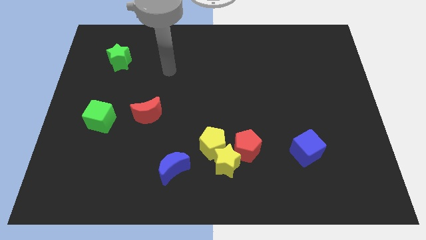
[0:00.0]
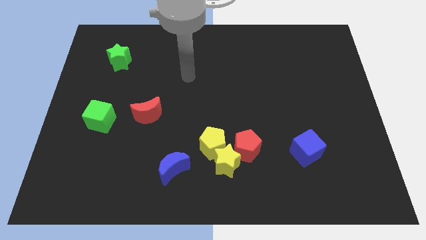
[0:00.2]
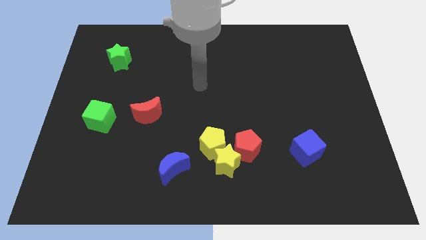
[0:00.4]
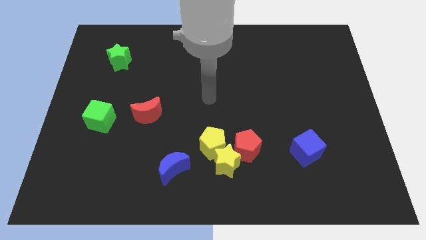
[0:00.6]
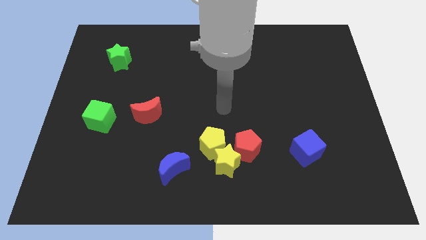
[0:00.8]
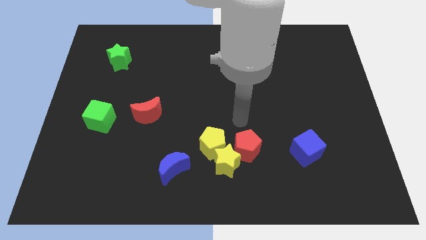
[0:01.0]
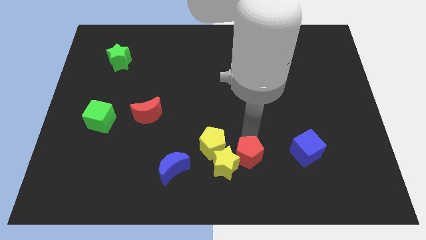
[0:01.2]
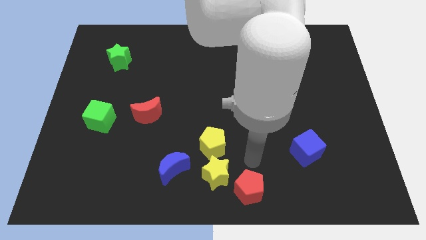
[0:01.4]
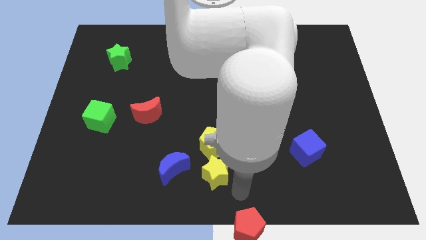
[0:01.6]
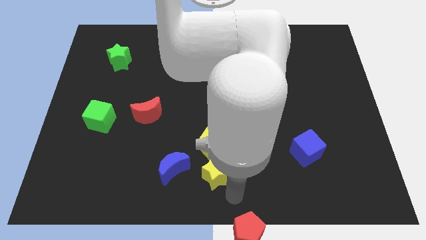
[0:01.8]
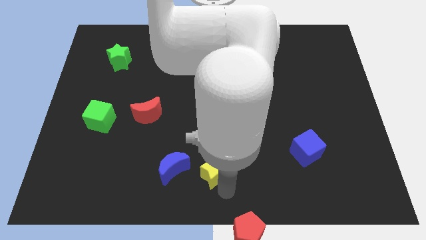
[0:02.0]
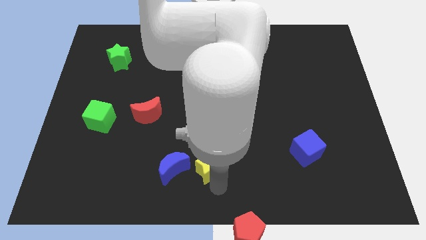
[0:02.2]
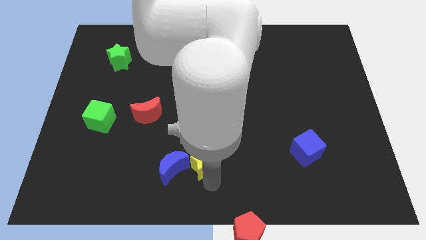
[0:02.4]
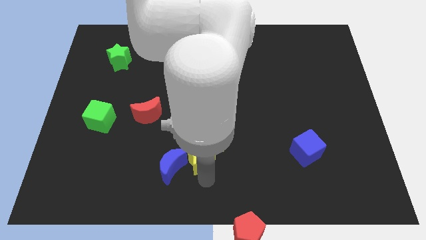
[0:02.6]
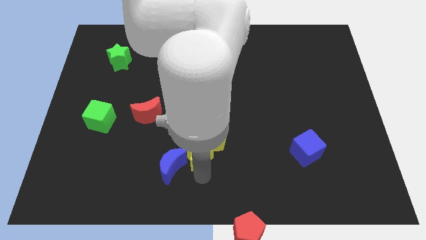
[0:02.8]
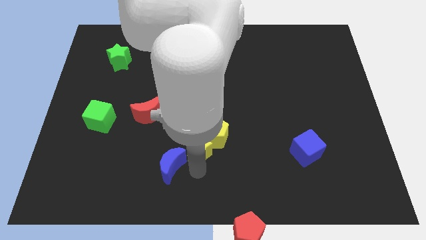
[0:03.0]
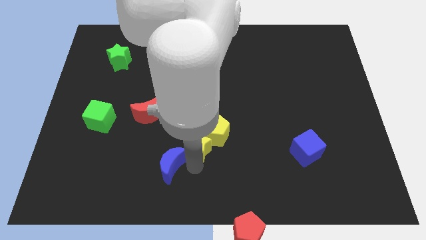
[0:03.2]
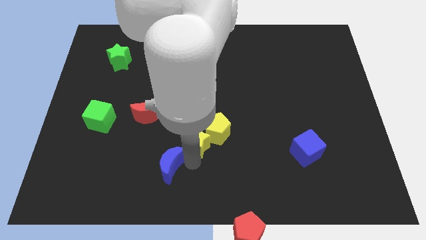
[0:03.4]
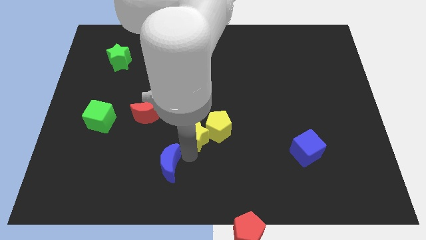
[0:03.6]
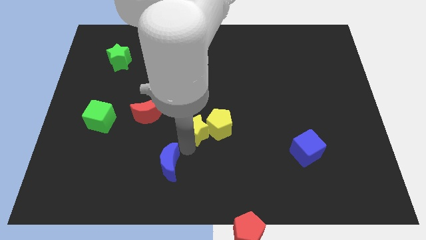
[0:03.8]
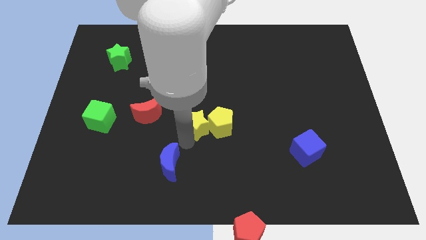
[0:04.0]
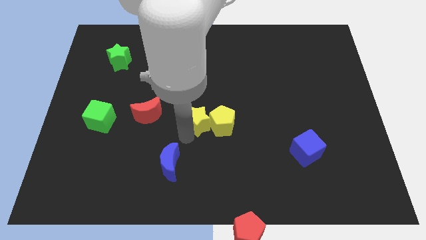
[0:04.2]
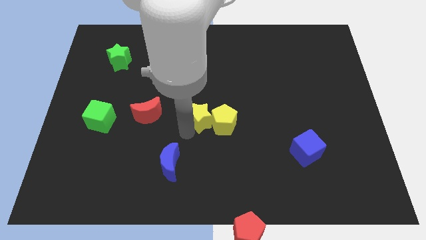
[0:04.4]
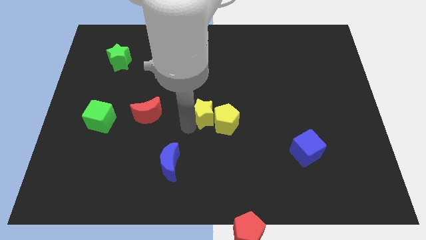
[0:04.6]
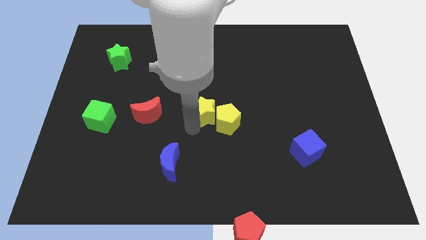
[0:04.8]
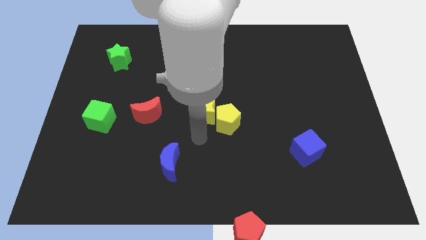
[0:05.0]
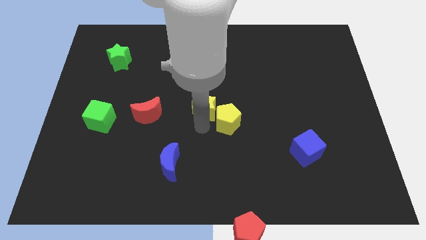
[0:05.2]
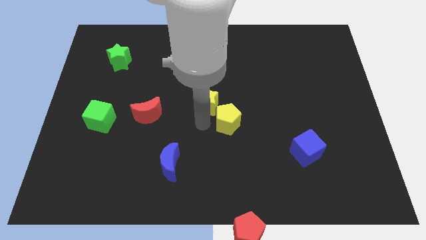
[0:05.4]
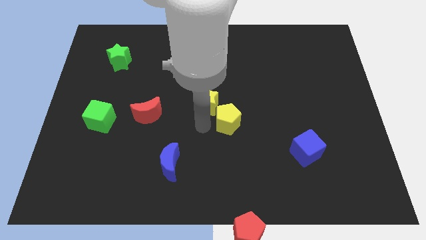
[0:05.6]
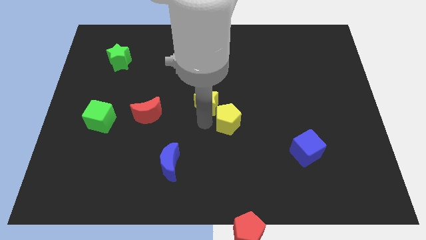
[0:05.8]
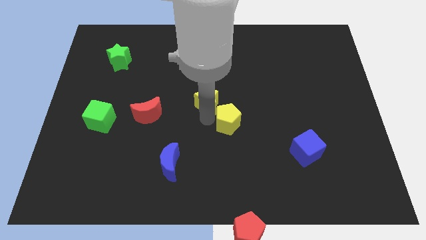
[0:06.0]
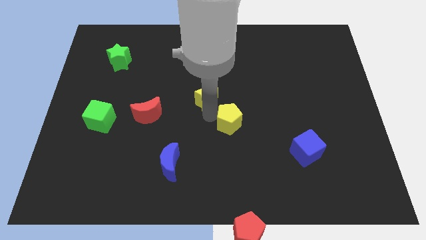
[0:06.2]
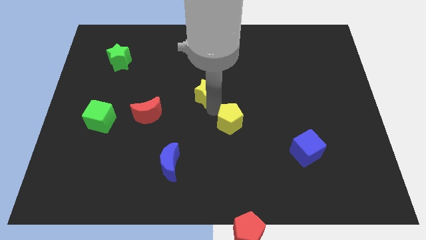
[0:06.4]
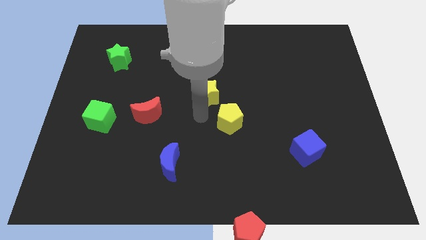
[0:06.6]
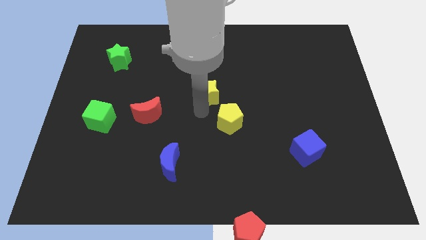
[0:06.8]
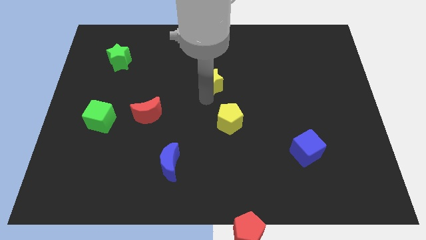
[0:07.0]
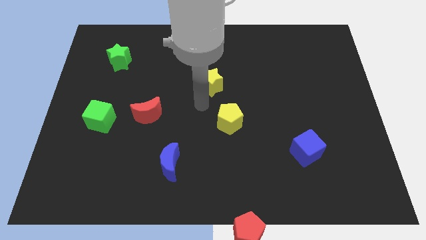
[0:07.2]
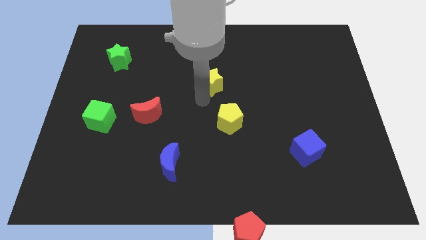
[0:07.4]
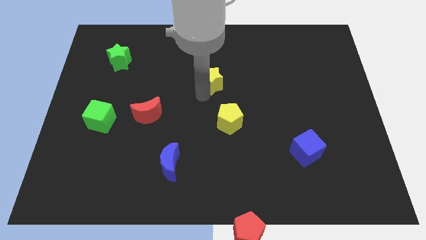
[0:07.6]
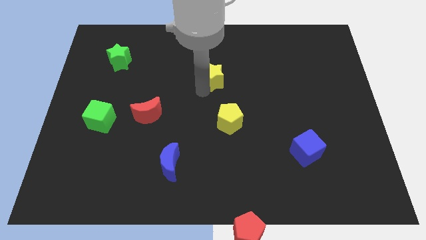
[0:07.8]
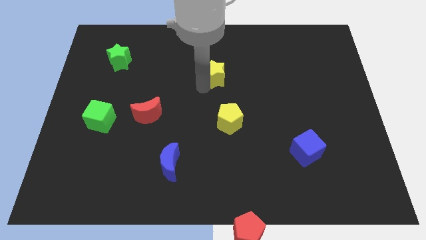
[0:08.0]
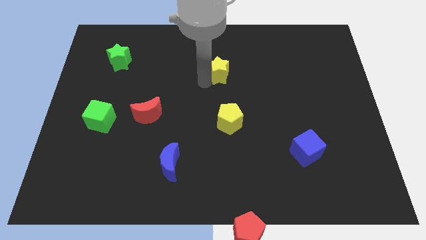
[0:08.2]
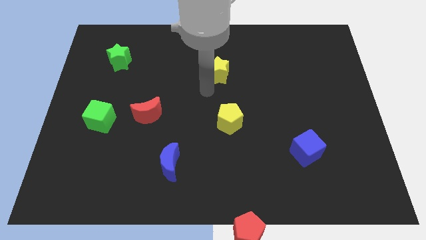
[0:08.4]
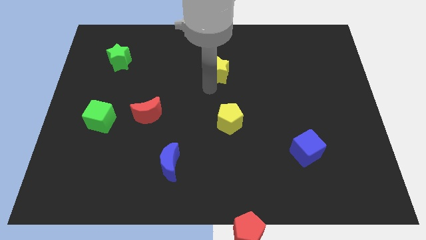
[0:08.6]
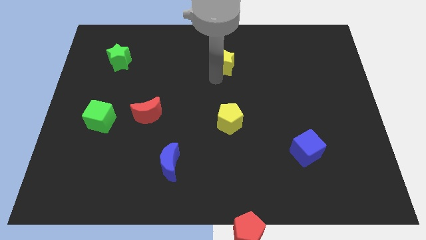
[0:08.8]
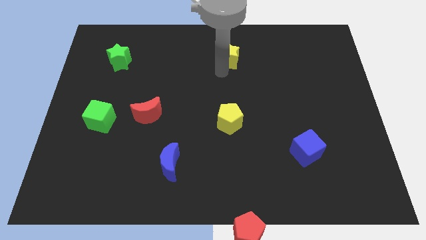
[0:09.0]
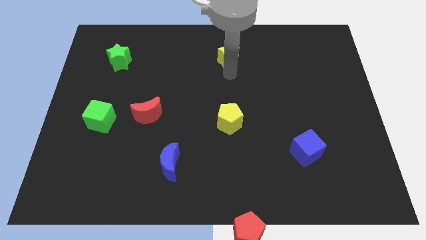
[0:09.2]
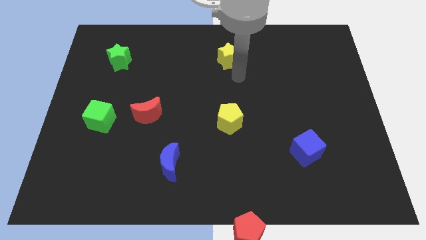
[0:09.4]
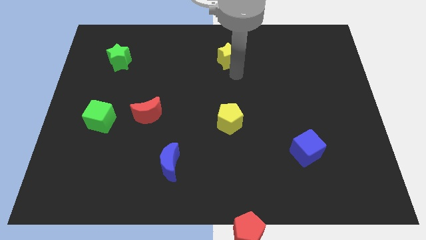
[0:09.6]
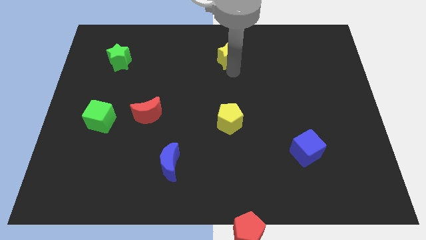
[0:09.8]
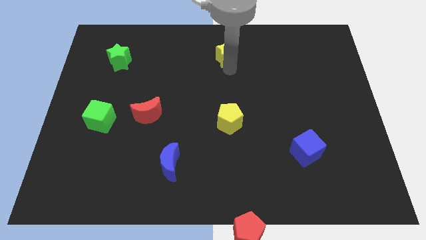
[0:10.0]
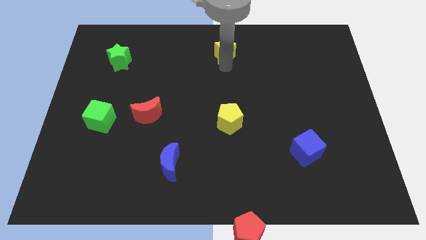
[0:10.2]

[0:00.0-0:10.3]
move the yellow star to the top side
